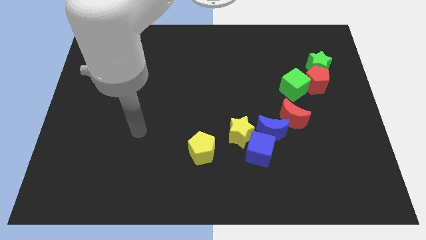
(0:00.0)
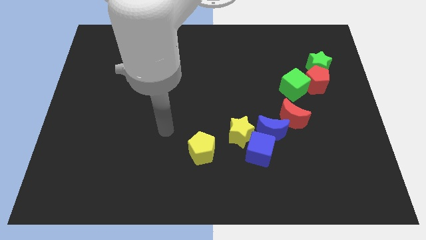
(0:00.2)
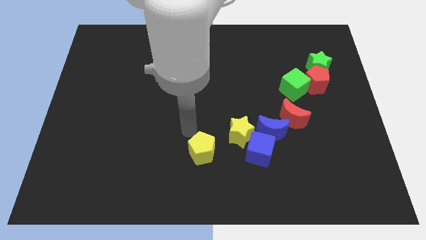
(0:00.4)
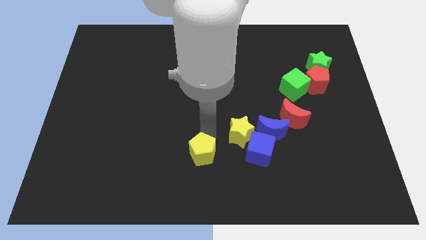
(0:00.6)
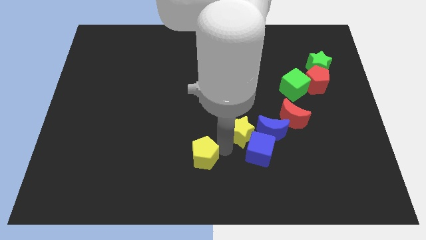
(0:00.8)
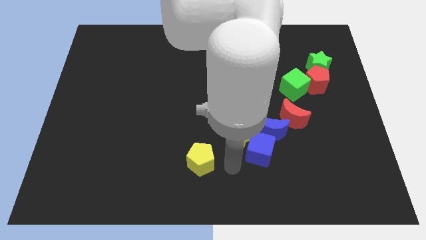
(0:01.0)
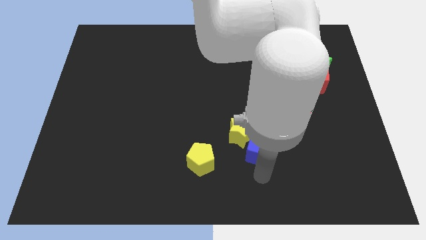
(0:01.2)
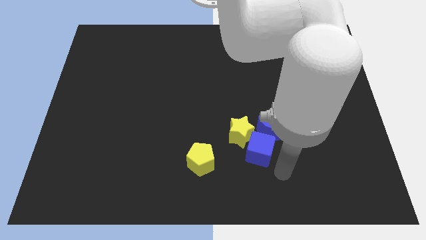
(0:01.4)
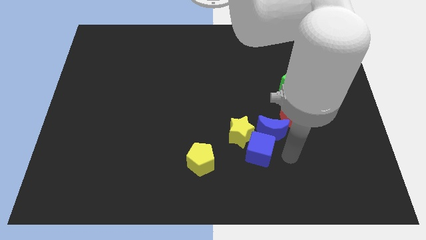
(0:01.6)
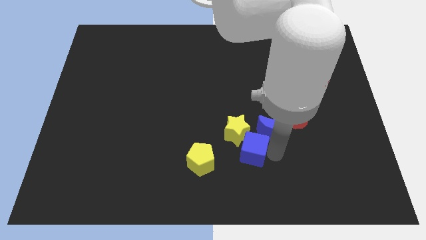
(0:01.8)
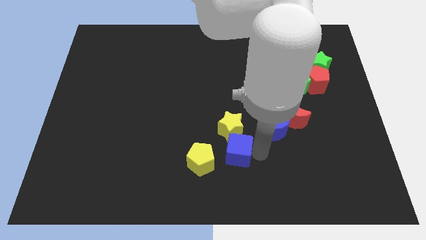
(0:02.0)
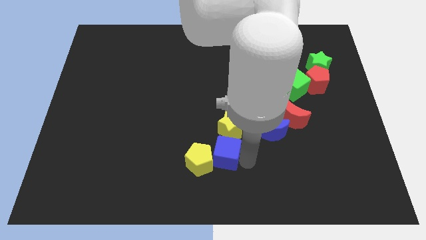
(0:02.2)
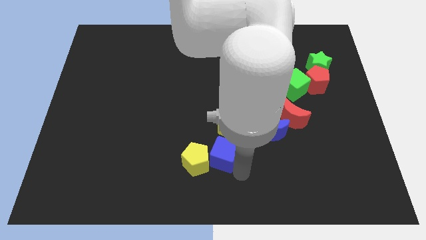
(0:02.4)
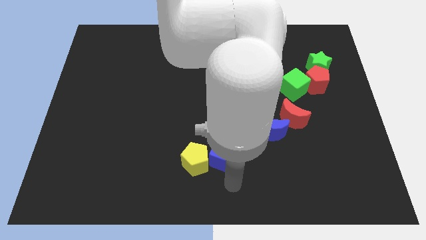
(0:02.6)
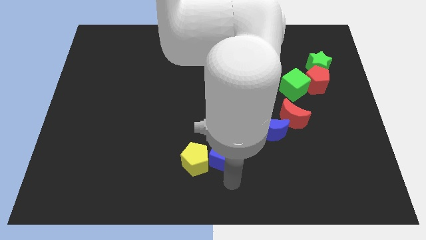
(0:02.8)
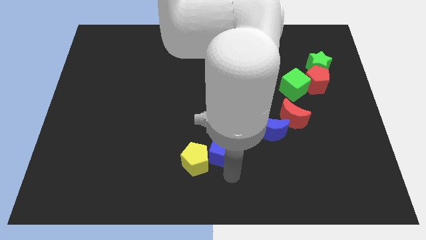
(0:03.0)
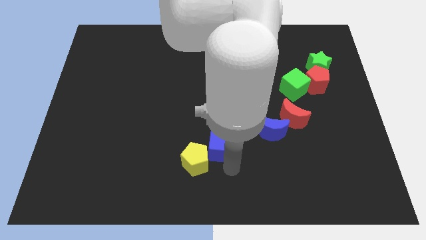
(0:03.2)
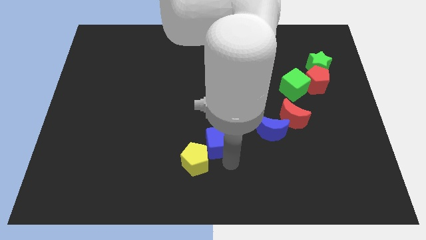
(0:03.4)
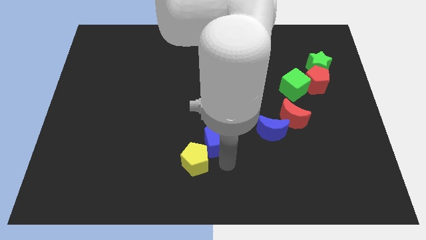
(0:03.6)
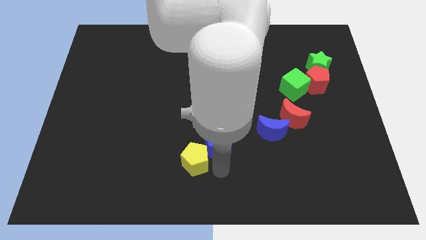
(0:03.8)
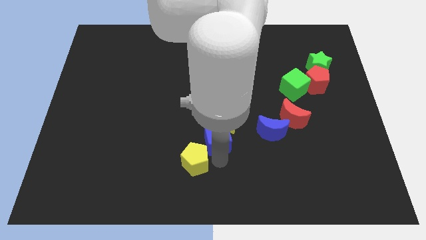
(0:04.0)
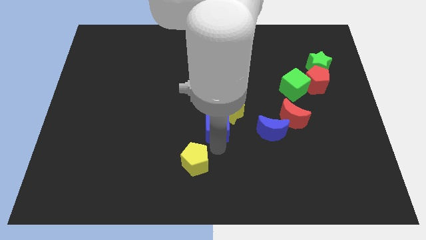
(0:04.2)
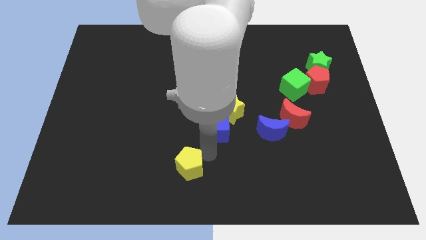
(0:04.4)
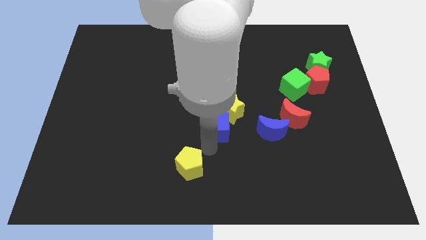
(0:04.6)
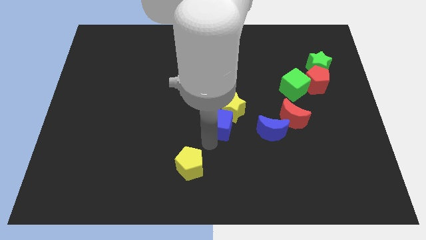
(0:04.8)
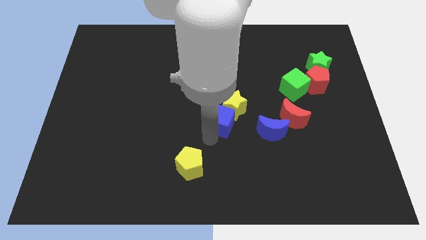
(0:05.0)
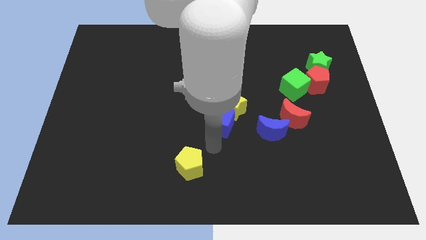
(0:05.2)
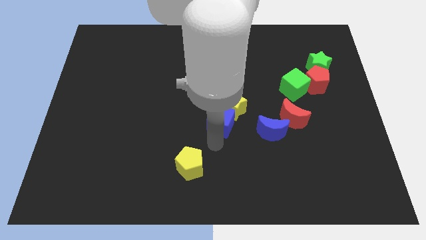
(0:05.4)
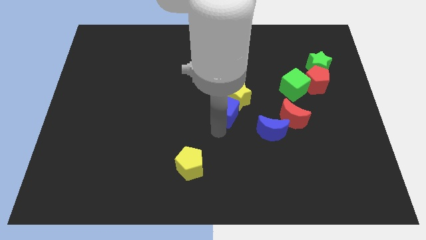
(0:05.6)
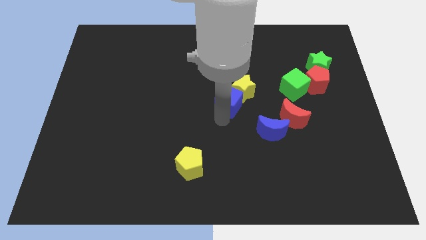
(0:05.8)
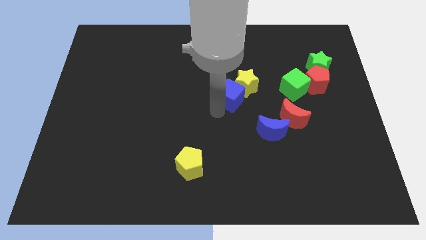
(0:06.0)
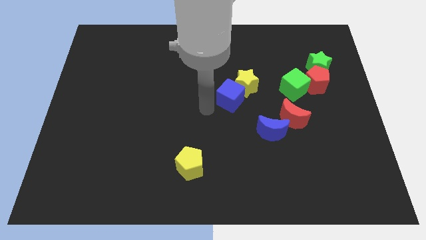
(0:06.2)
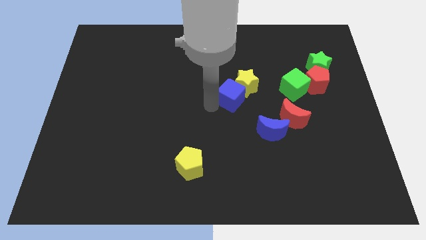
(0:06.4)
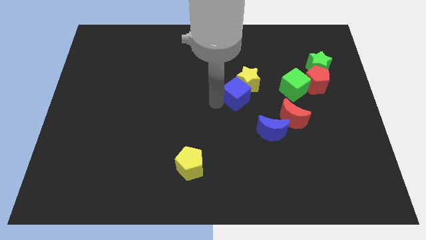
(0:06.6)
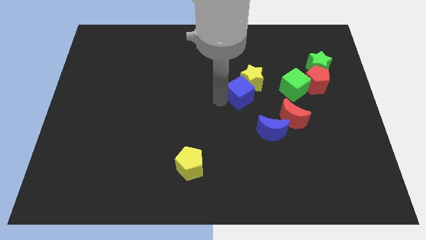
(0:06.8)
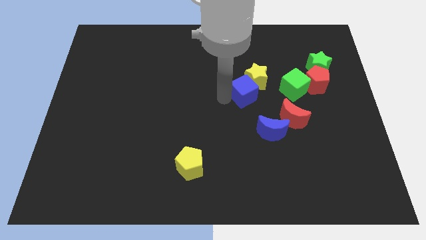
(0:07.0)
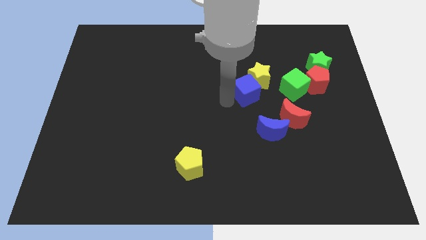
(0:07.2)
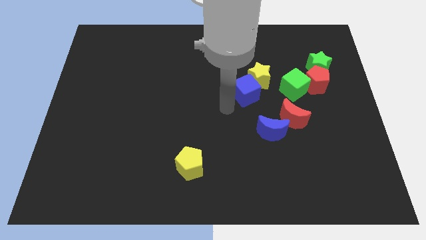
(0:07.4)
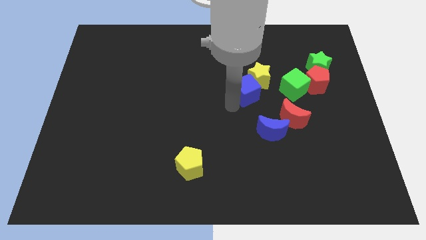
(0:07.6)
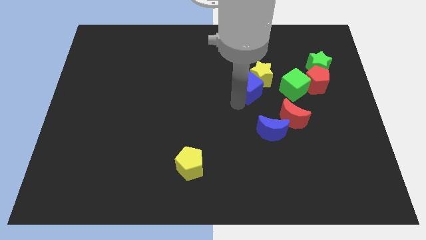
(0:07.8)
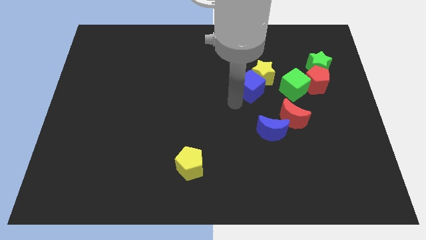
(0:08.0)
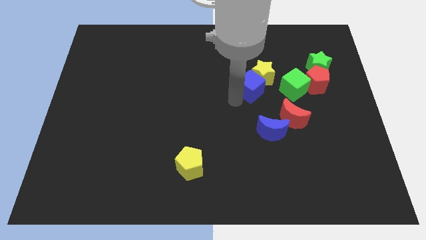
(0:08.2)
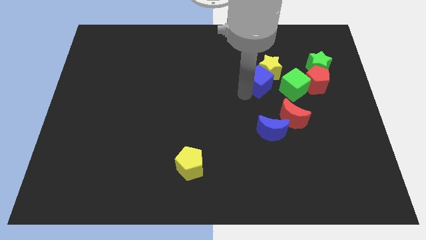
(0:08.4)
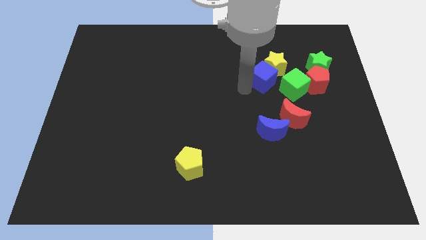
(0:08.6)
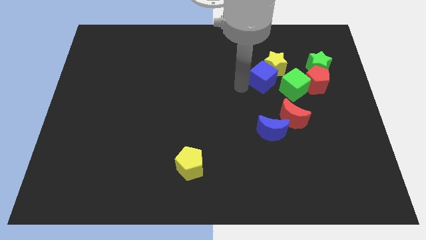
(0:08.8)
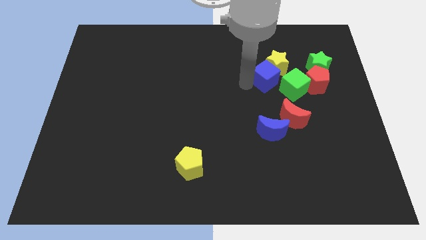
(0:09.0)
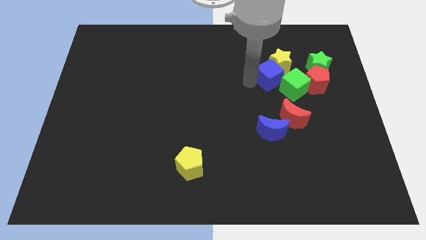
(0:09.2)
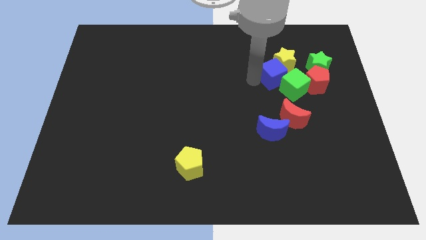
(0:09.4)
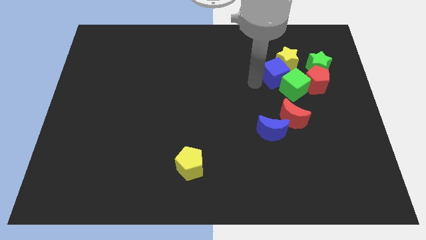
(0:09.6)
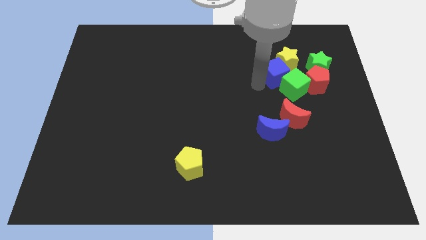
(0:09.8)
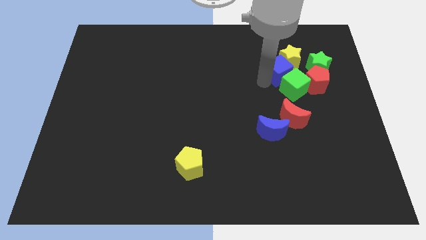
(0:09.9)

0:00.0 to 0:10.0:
slide the blue cube to the top left side of the red pentagon

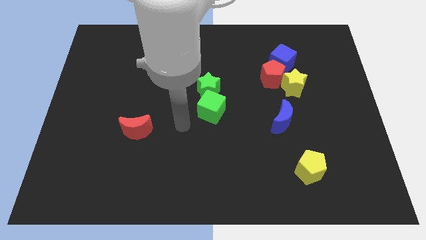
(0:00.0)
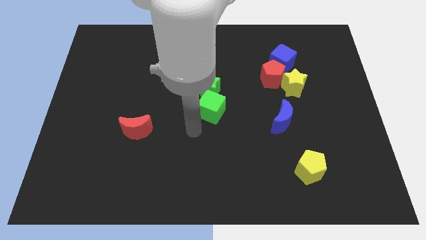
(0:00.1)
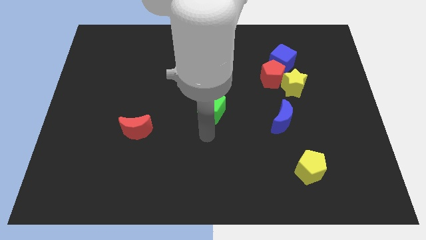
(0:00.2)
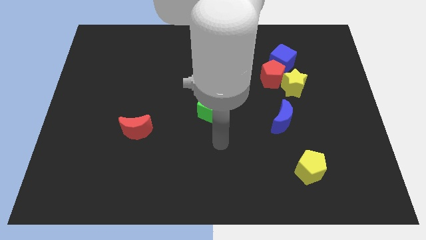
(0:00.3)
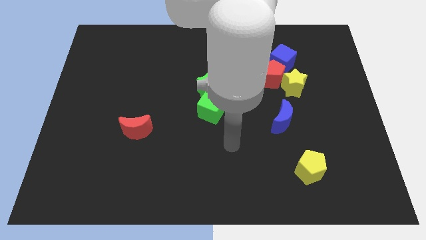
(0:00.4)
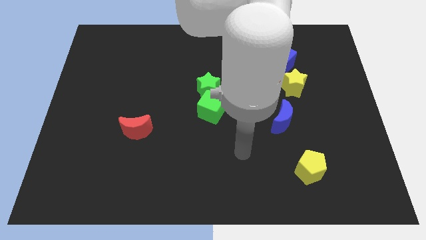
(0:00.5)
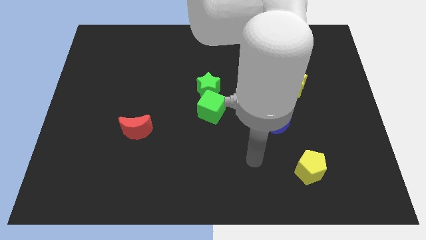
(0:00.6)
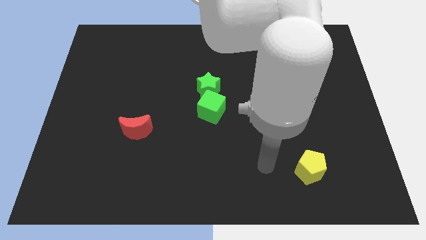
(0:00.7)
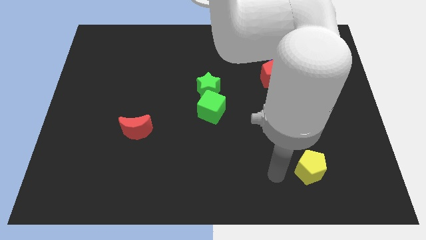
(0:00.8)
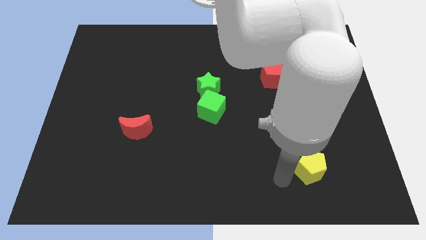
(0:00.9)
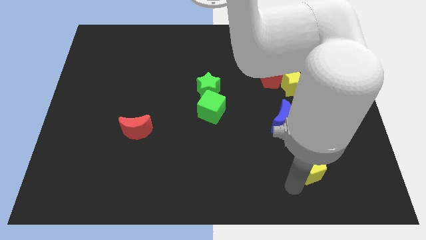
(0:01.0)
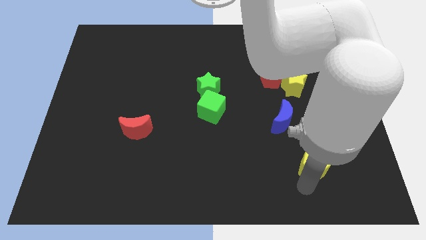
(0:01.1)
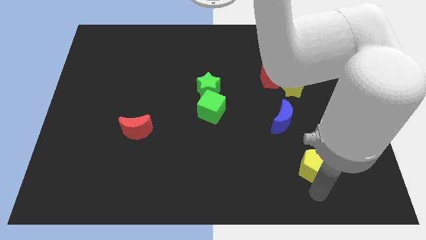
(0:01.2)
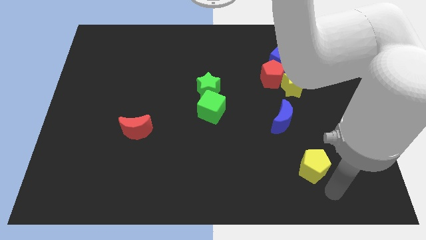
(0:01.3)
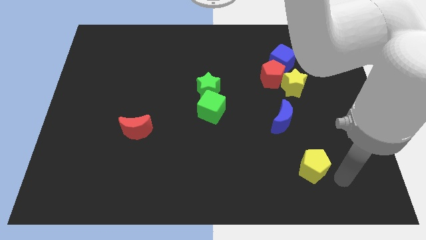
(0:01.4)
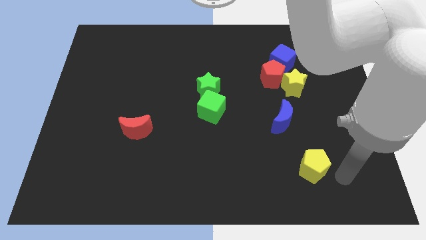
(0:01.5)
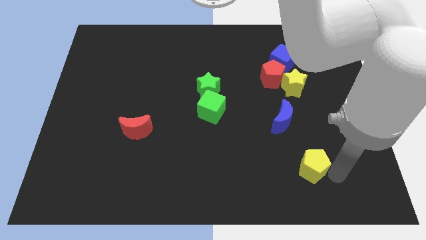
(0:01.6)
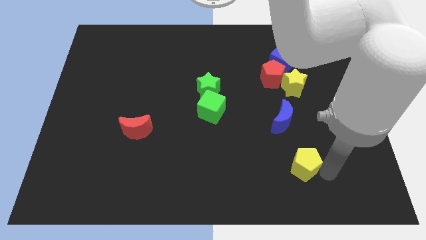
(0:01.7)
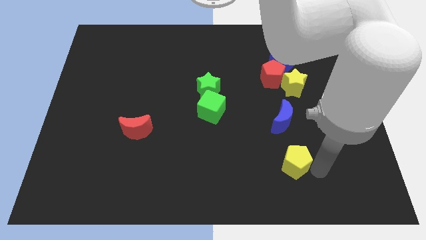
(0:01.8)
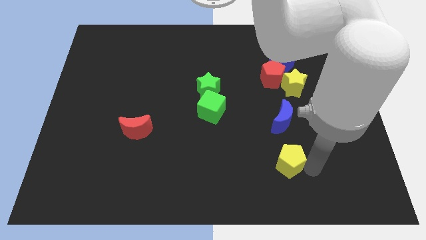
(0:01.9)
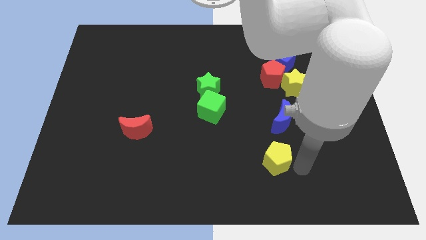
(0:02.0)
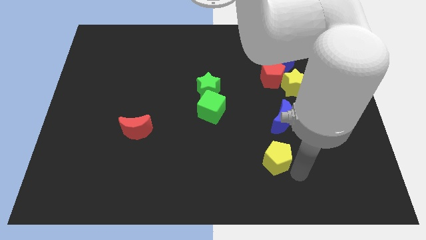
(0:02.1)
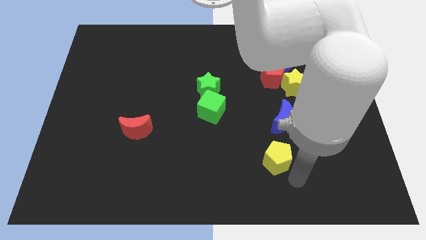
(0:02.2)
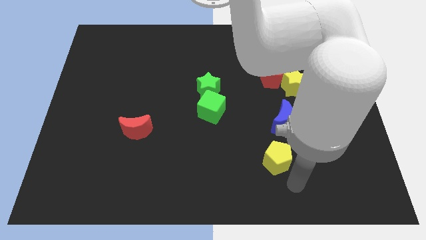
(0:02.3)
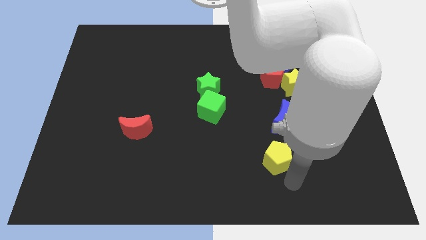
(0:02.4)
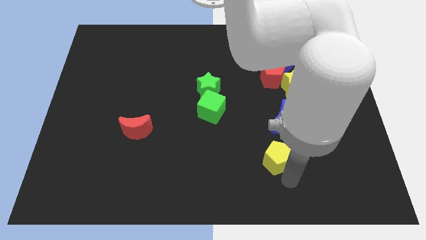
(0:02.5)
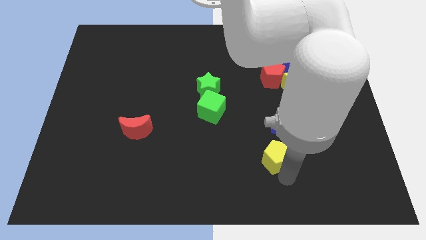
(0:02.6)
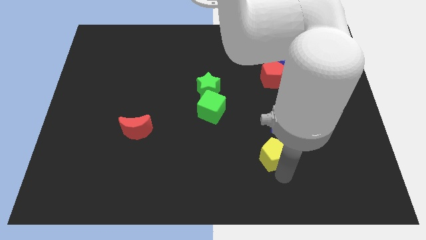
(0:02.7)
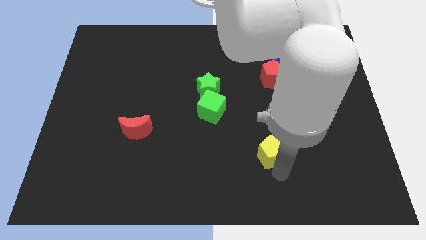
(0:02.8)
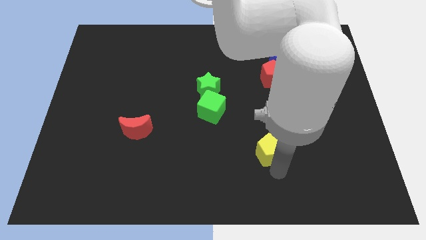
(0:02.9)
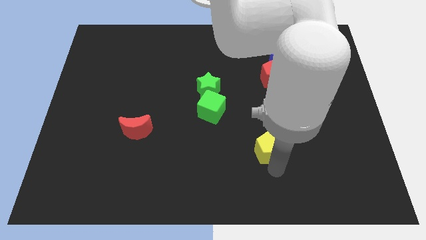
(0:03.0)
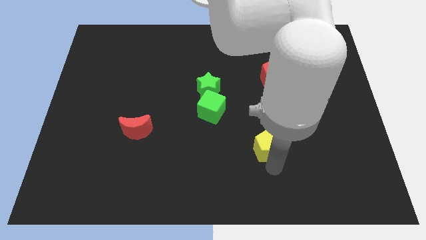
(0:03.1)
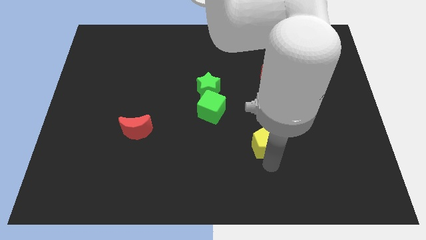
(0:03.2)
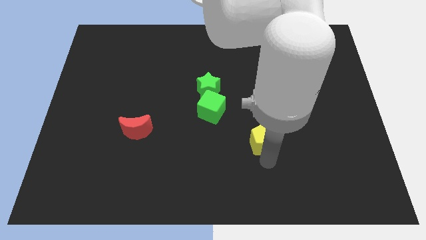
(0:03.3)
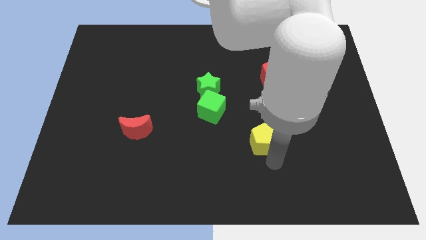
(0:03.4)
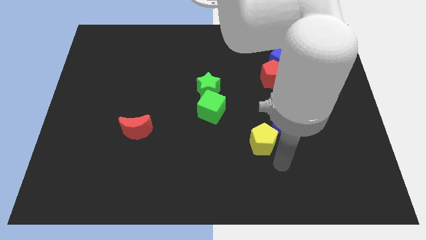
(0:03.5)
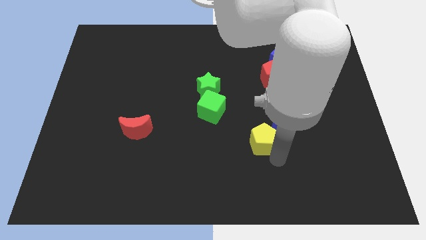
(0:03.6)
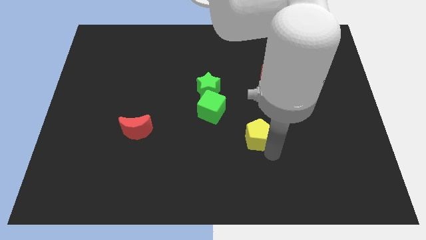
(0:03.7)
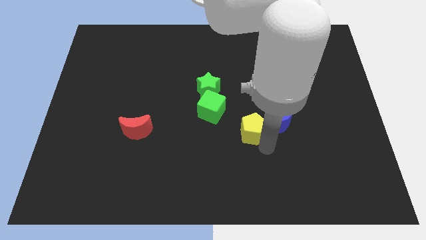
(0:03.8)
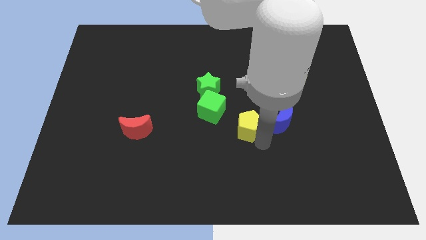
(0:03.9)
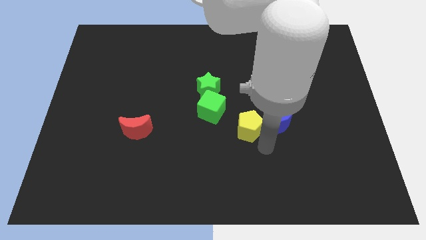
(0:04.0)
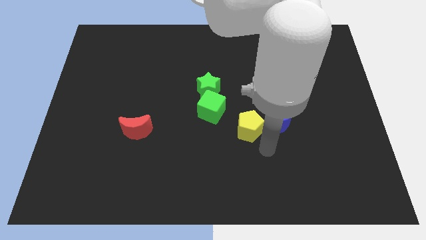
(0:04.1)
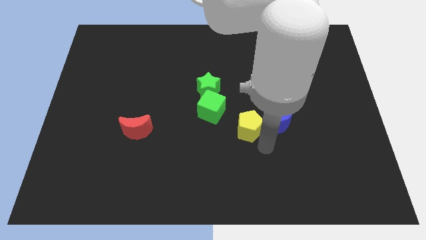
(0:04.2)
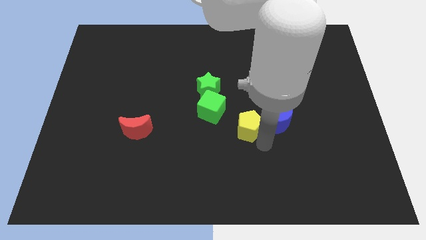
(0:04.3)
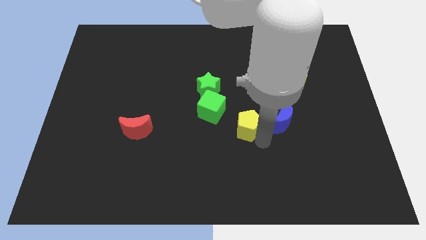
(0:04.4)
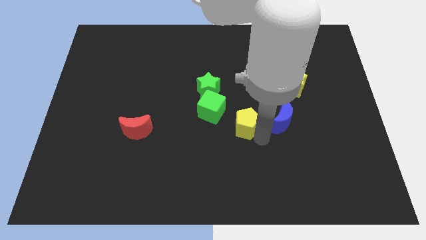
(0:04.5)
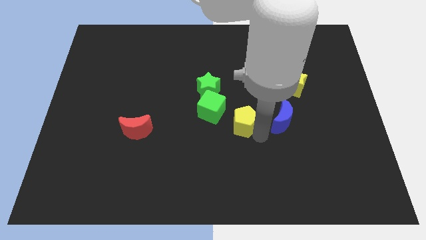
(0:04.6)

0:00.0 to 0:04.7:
put the yellow pentagon to the bottom right side of the green star
